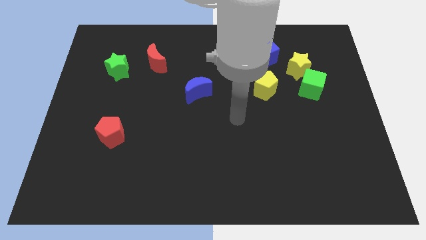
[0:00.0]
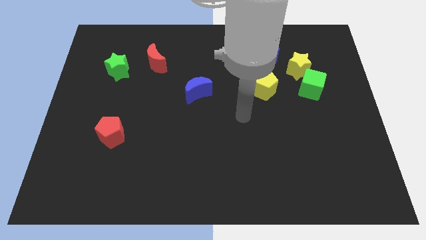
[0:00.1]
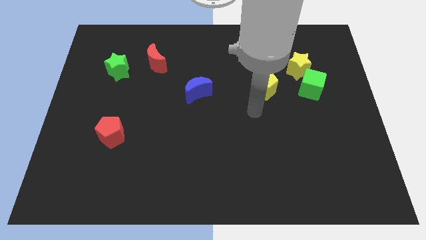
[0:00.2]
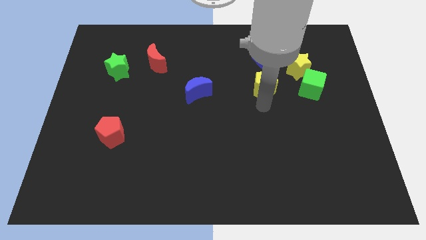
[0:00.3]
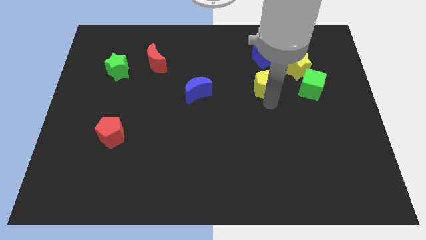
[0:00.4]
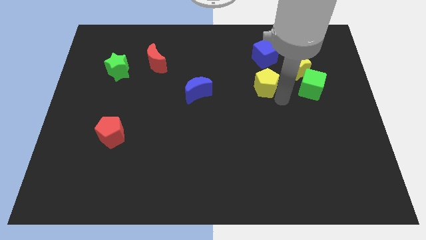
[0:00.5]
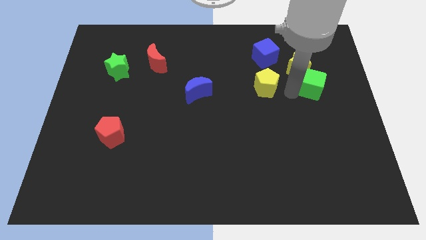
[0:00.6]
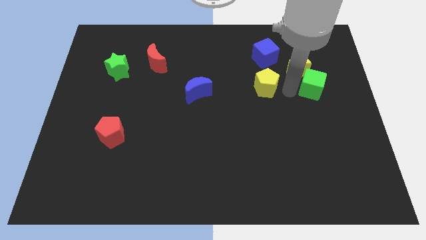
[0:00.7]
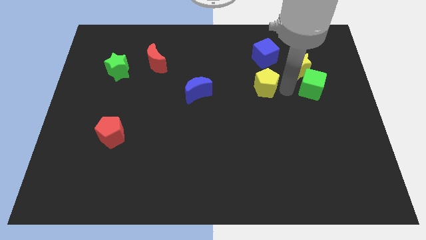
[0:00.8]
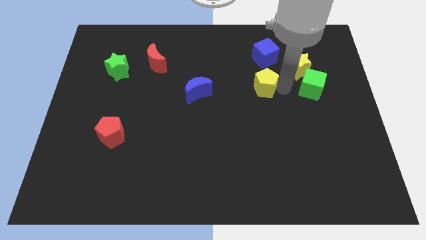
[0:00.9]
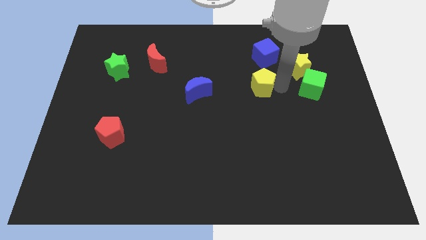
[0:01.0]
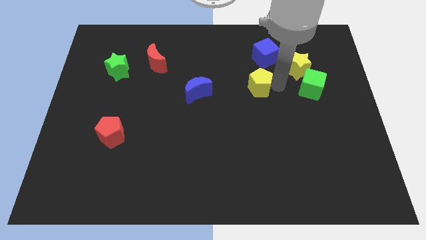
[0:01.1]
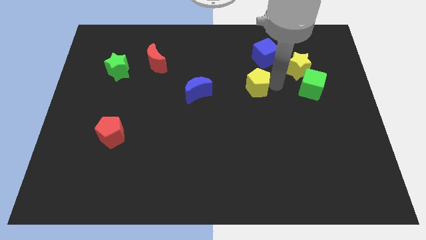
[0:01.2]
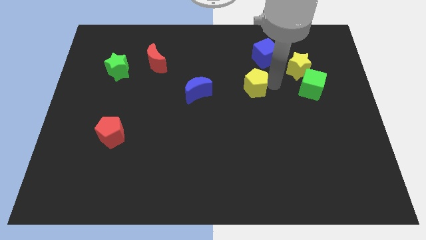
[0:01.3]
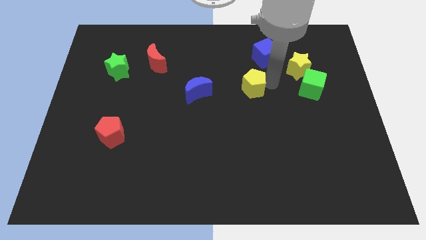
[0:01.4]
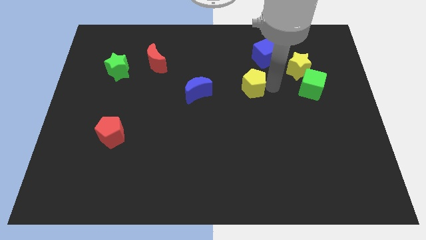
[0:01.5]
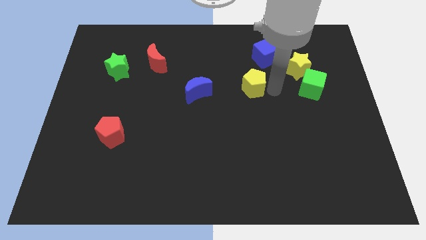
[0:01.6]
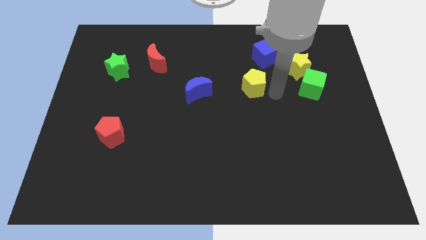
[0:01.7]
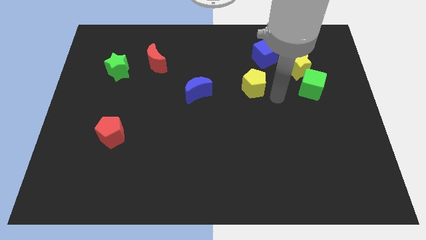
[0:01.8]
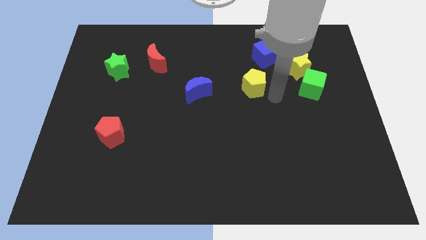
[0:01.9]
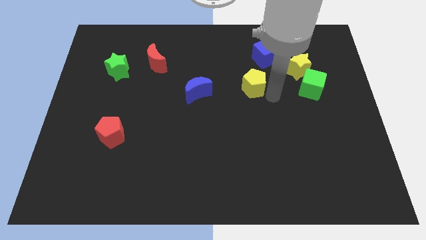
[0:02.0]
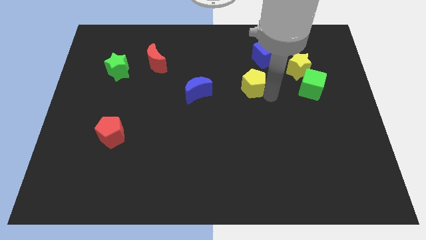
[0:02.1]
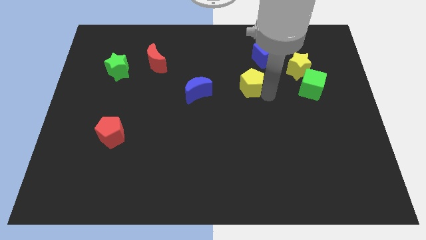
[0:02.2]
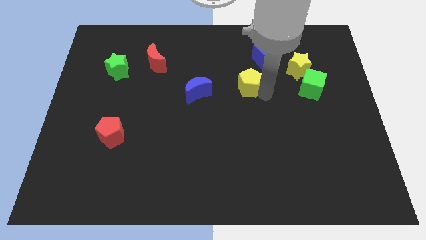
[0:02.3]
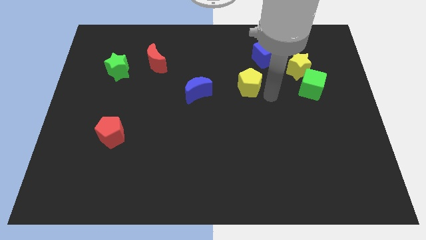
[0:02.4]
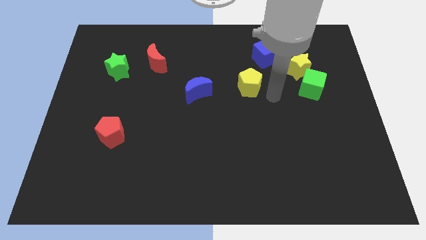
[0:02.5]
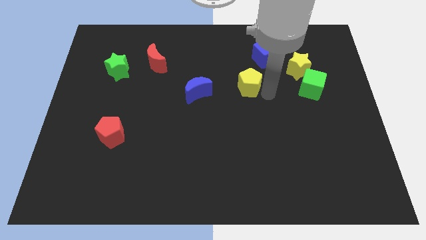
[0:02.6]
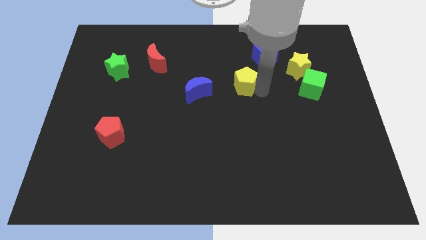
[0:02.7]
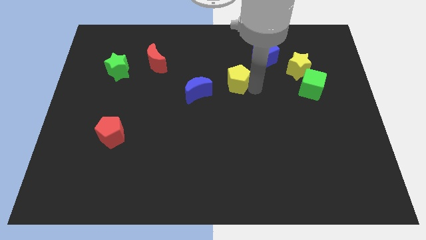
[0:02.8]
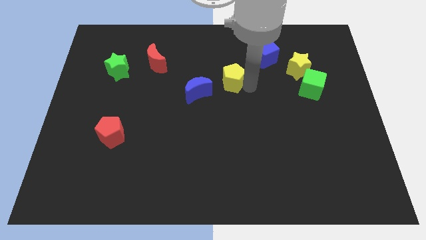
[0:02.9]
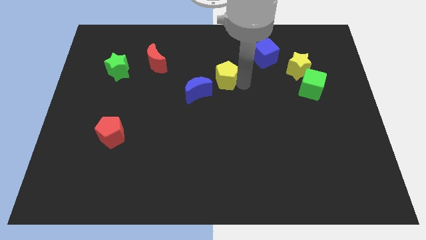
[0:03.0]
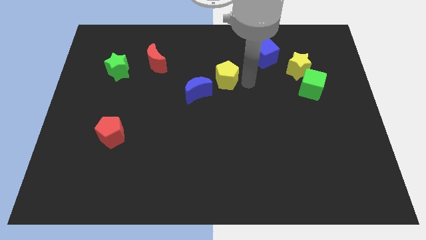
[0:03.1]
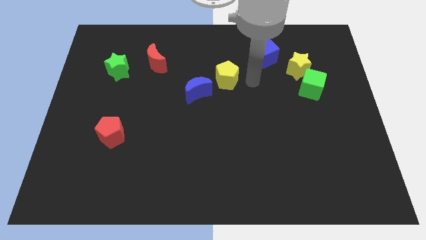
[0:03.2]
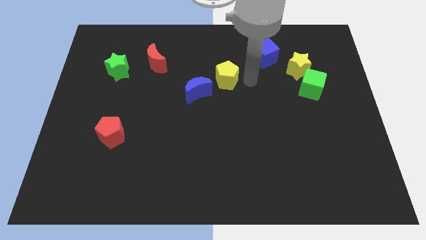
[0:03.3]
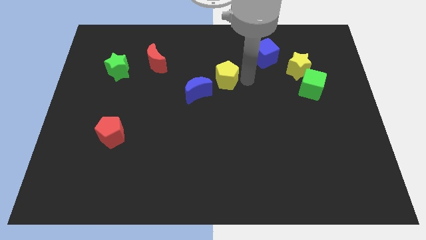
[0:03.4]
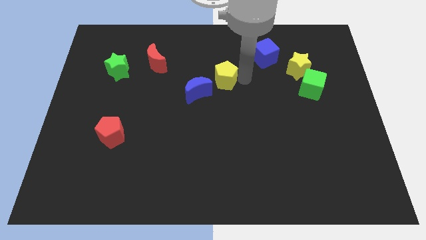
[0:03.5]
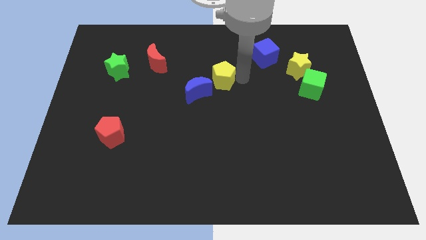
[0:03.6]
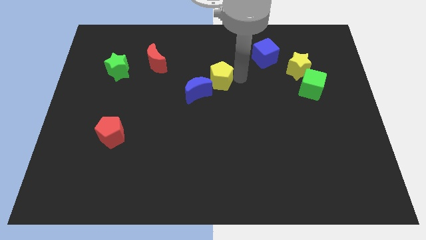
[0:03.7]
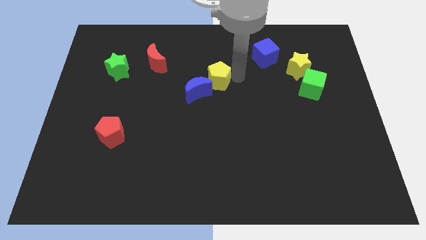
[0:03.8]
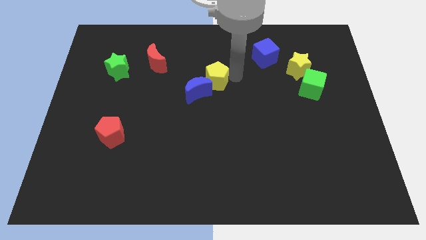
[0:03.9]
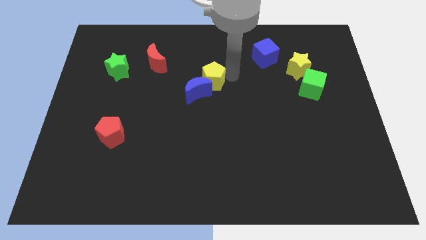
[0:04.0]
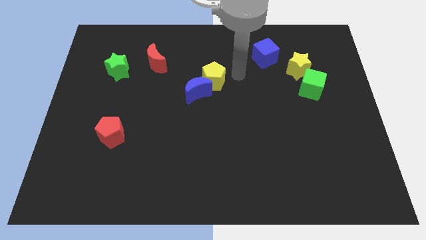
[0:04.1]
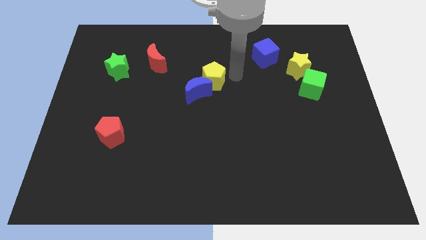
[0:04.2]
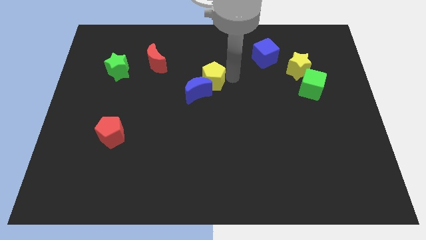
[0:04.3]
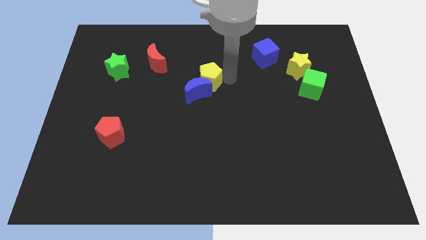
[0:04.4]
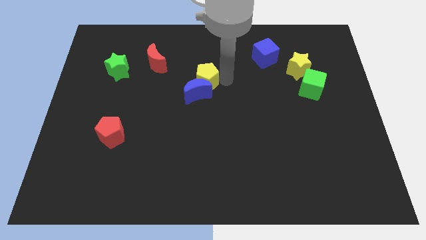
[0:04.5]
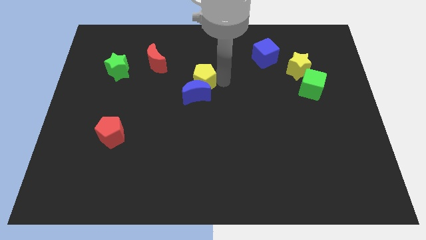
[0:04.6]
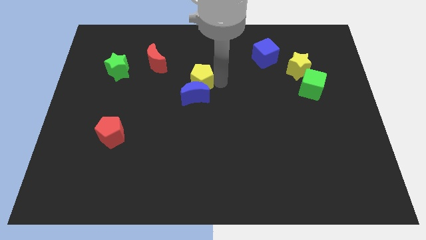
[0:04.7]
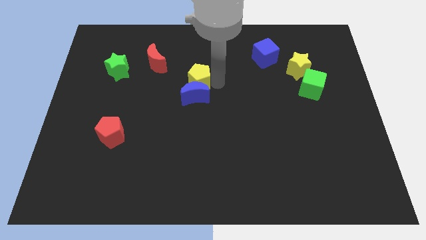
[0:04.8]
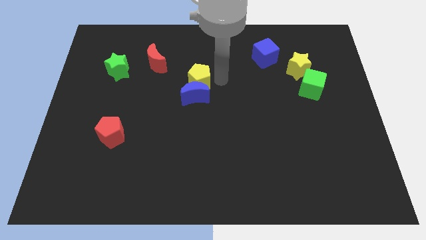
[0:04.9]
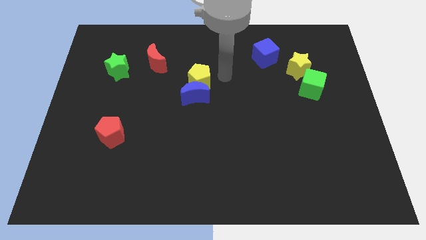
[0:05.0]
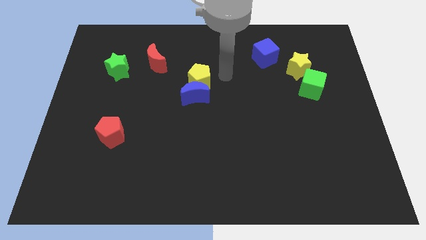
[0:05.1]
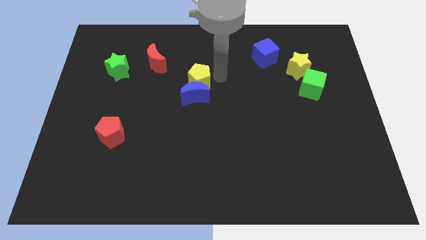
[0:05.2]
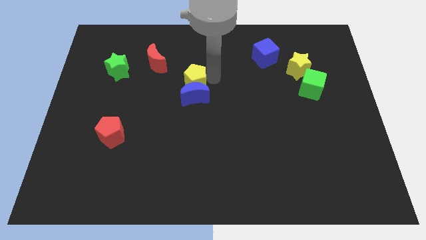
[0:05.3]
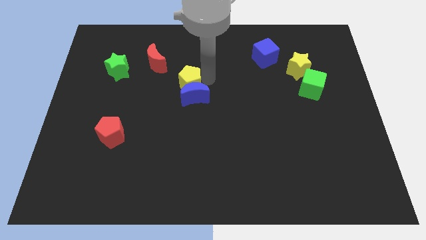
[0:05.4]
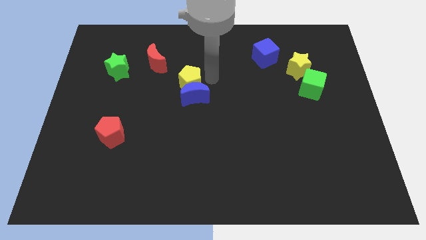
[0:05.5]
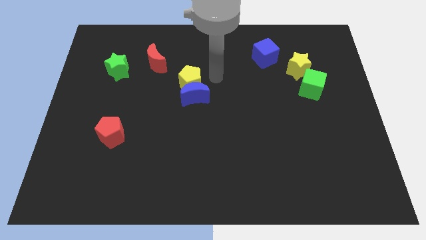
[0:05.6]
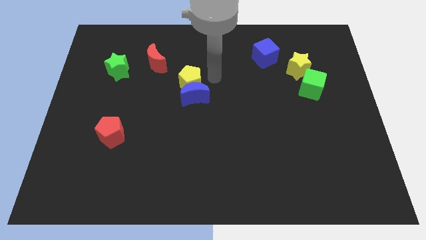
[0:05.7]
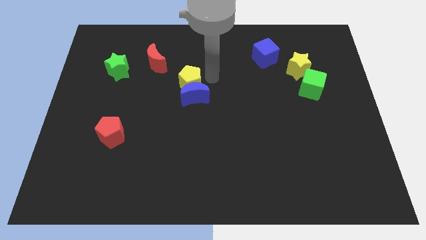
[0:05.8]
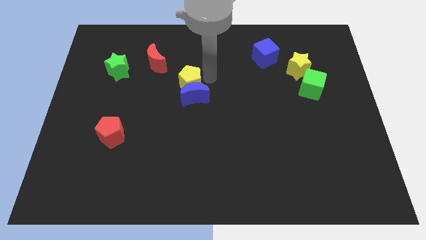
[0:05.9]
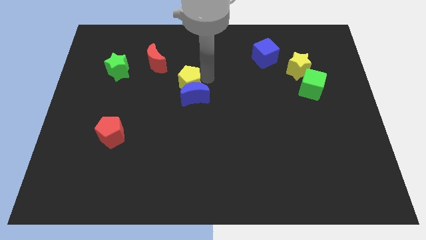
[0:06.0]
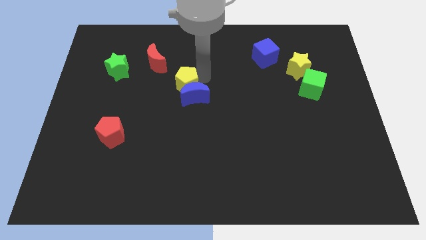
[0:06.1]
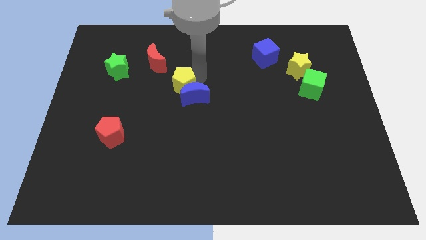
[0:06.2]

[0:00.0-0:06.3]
put the yellow pentagon left of the blue moon
